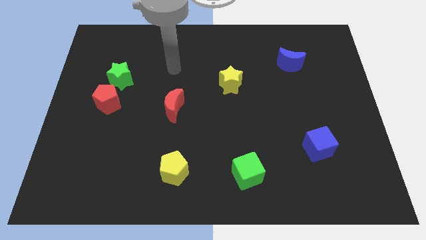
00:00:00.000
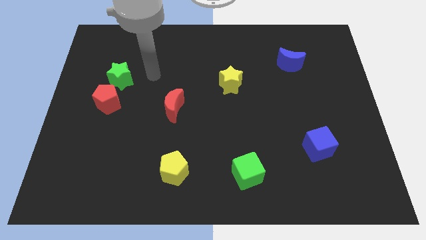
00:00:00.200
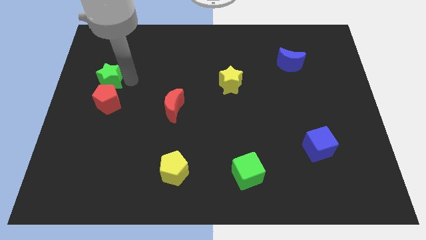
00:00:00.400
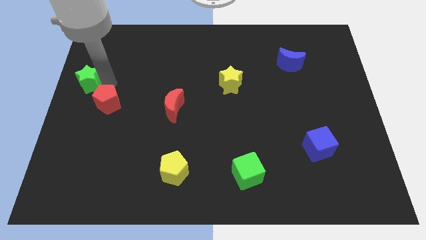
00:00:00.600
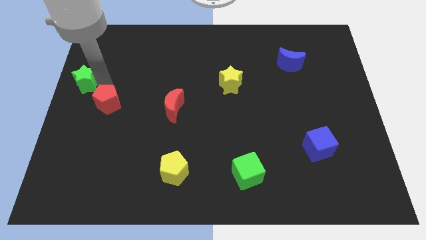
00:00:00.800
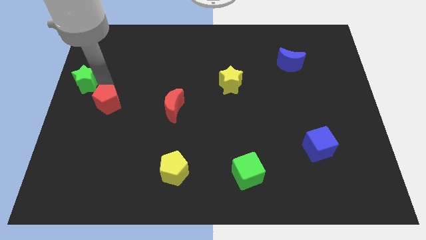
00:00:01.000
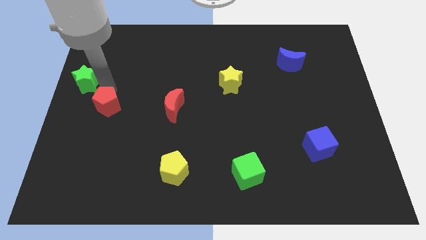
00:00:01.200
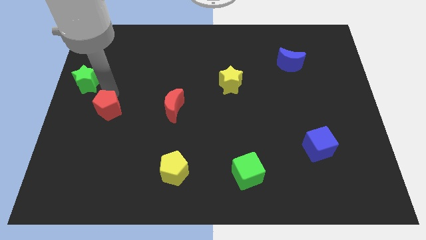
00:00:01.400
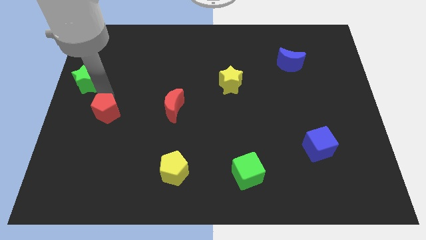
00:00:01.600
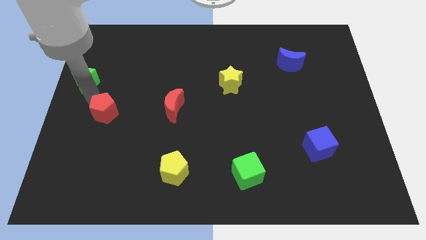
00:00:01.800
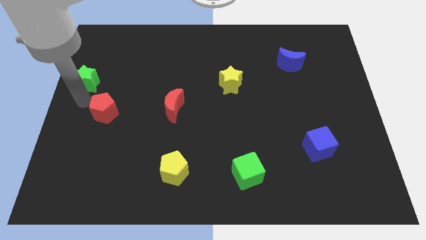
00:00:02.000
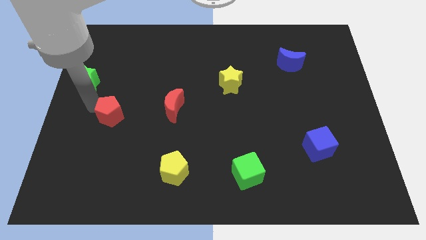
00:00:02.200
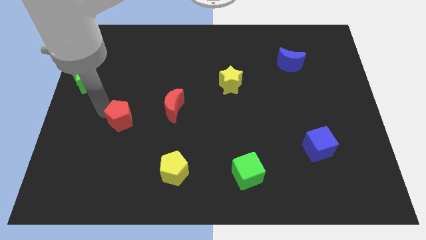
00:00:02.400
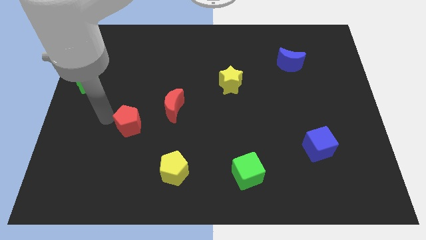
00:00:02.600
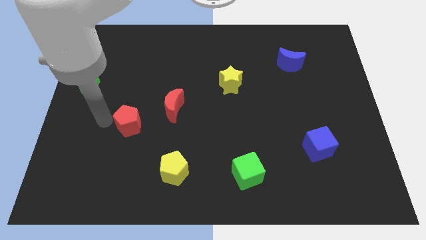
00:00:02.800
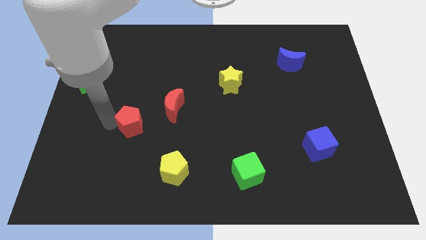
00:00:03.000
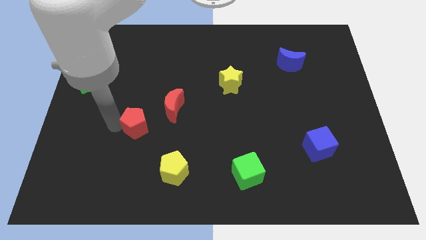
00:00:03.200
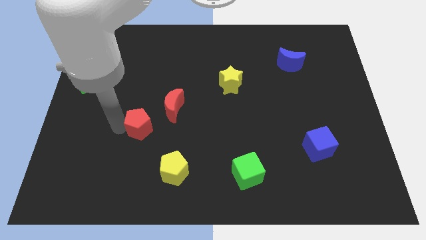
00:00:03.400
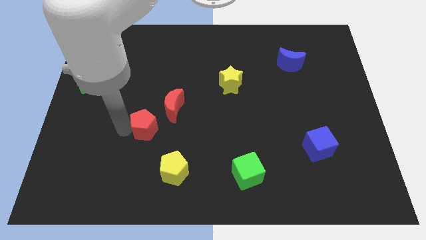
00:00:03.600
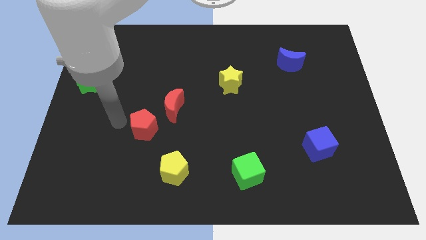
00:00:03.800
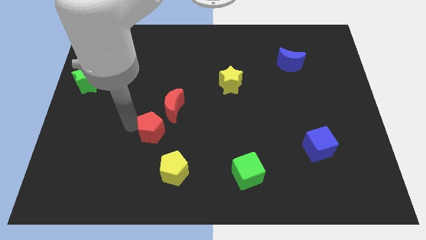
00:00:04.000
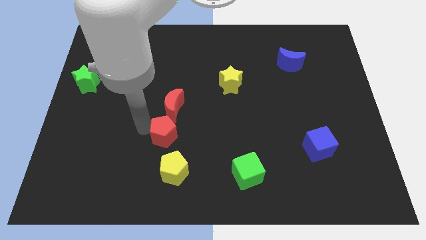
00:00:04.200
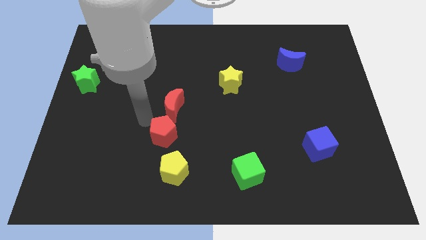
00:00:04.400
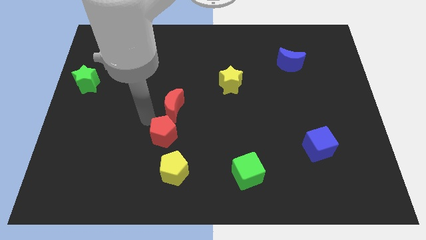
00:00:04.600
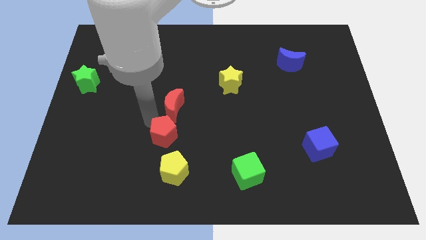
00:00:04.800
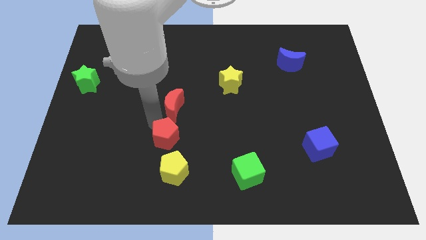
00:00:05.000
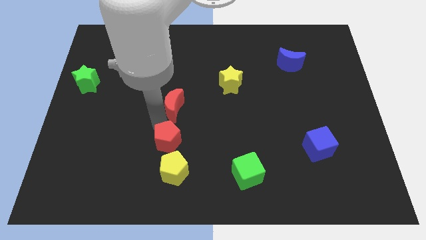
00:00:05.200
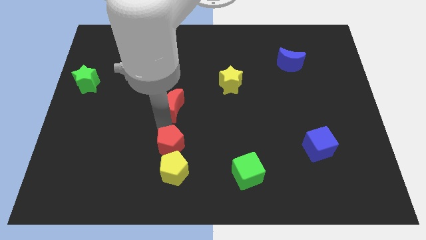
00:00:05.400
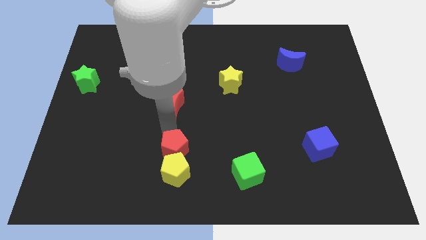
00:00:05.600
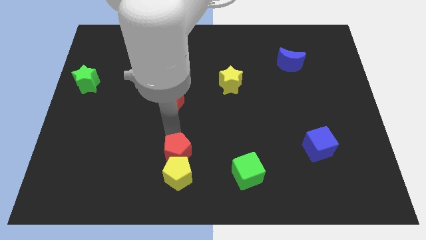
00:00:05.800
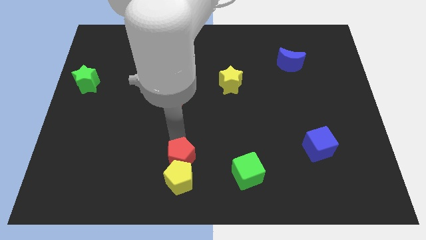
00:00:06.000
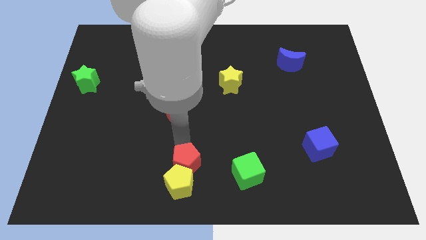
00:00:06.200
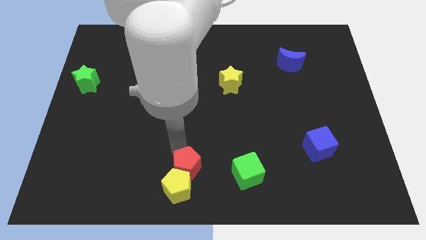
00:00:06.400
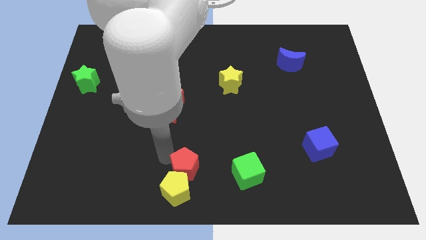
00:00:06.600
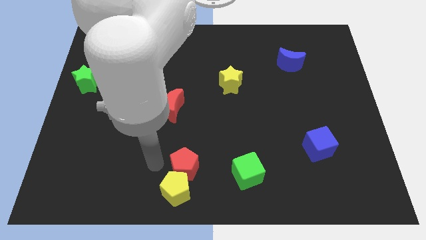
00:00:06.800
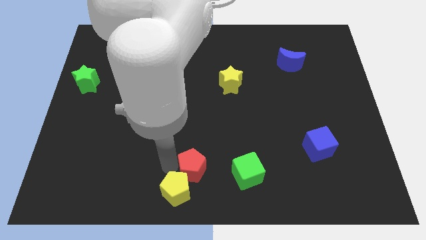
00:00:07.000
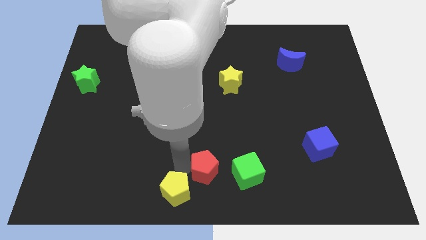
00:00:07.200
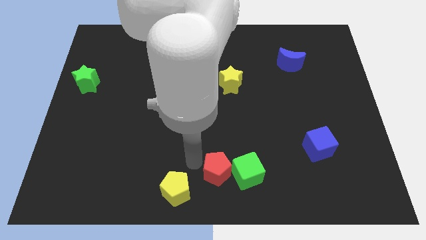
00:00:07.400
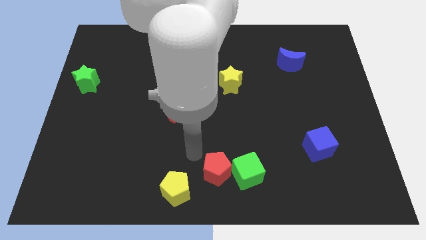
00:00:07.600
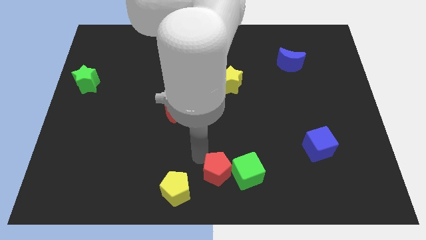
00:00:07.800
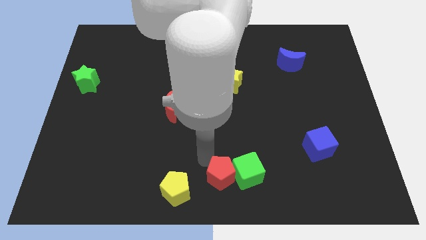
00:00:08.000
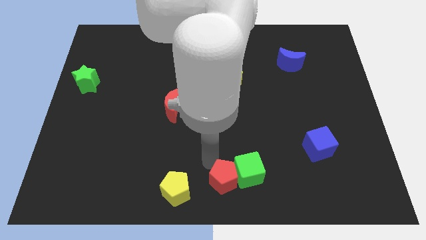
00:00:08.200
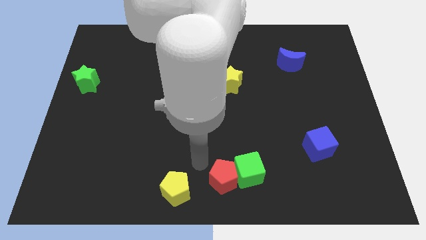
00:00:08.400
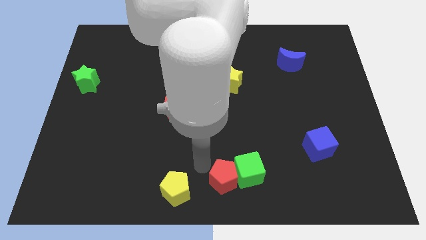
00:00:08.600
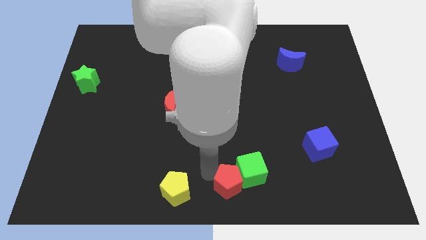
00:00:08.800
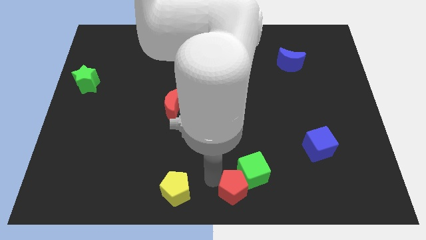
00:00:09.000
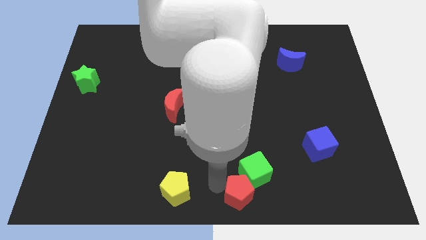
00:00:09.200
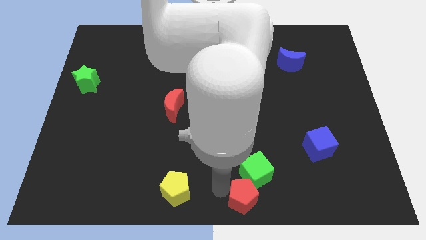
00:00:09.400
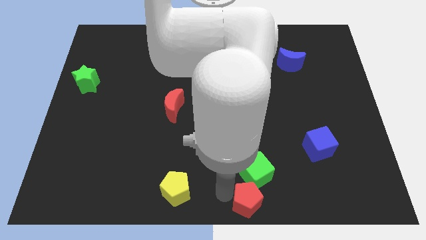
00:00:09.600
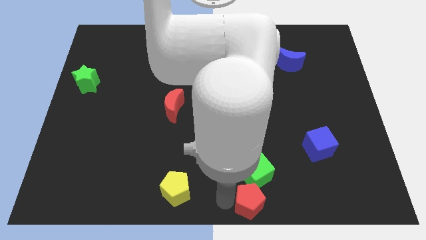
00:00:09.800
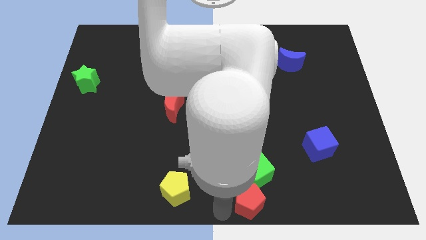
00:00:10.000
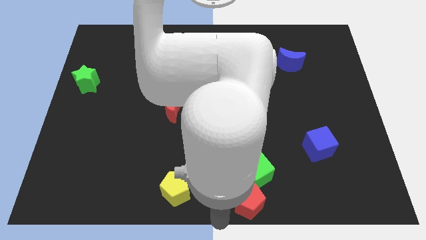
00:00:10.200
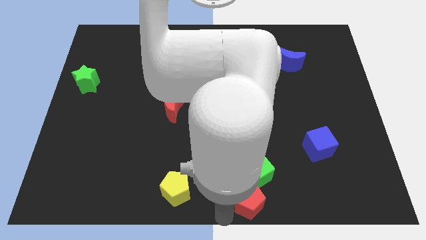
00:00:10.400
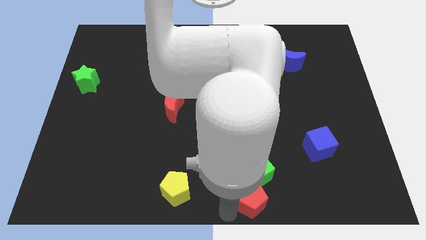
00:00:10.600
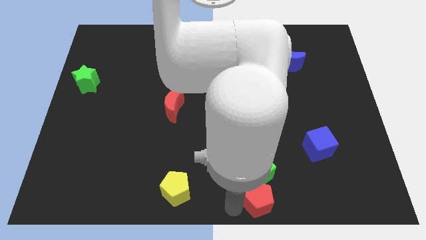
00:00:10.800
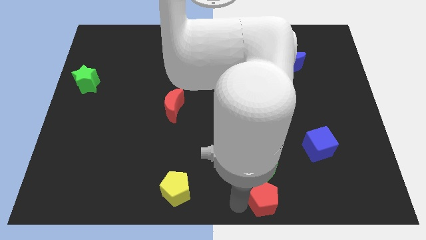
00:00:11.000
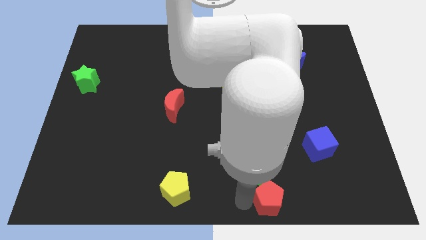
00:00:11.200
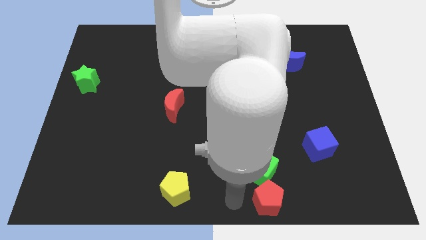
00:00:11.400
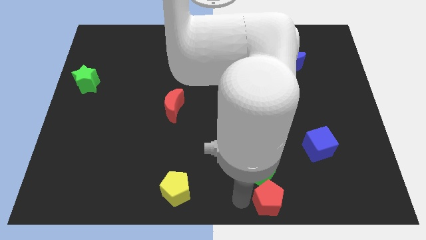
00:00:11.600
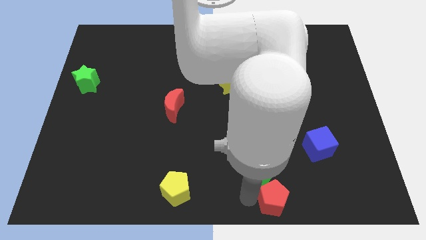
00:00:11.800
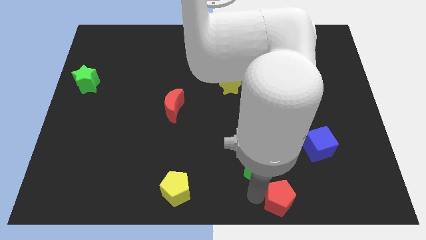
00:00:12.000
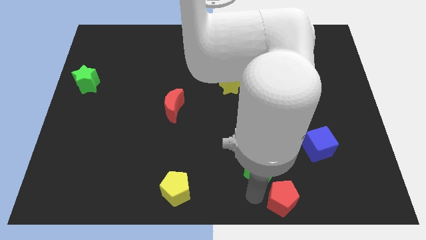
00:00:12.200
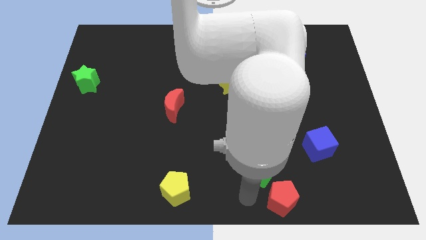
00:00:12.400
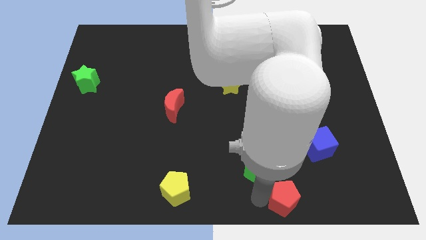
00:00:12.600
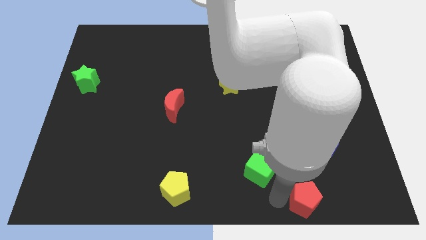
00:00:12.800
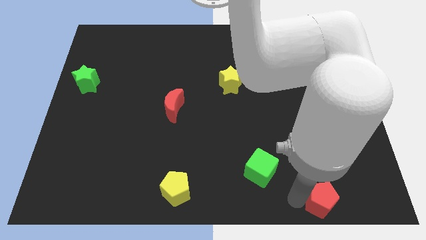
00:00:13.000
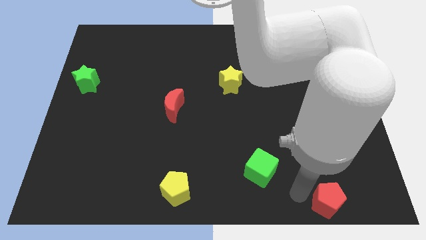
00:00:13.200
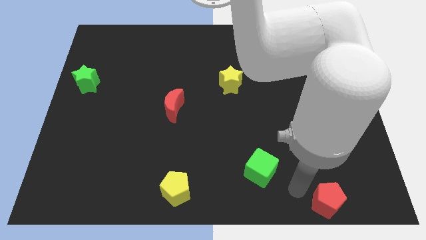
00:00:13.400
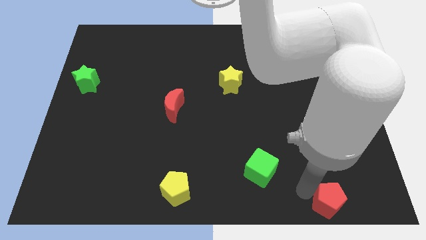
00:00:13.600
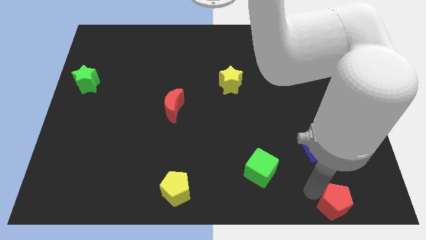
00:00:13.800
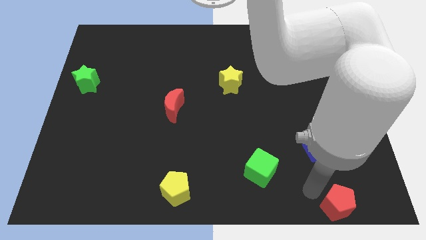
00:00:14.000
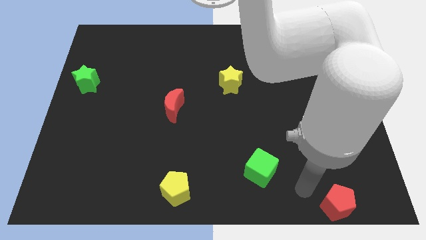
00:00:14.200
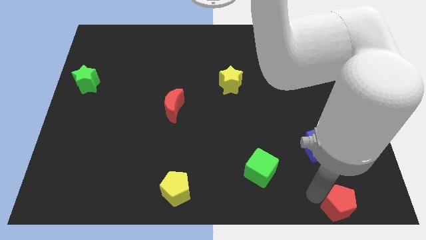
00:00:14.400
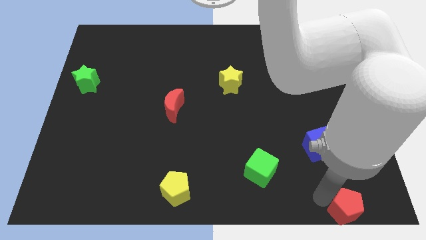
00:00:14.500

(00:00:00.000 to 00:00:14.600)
move the red pentagon to the bottom right
